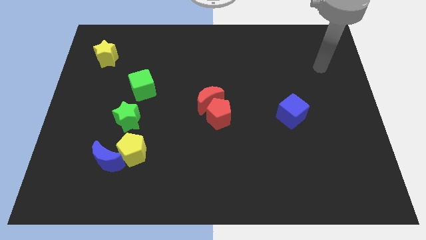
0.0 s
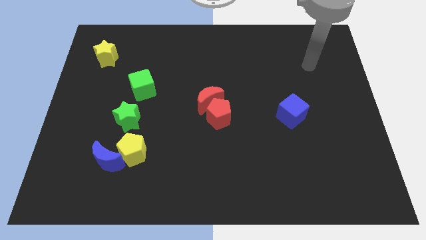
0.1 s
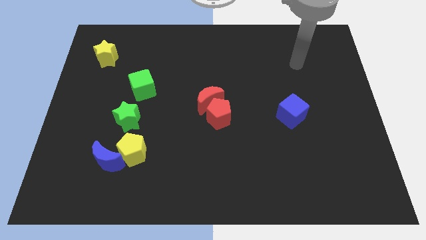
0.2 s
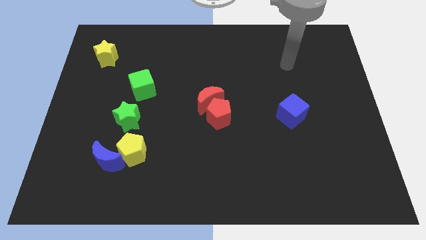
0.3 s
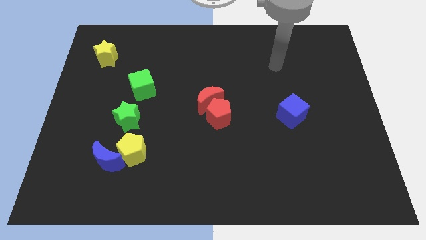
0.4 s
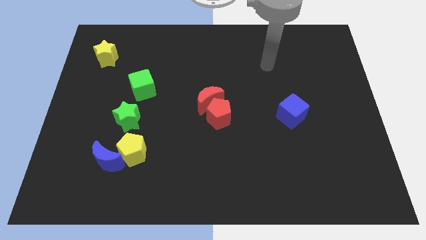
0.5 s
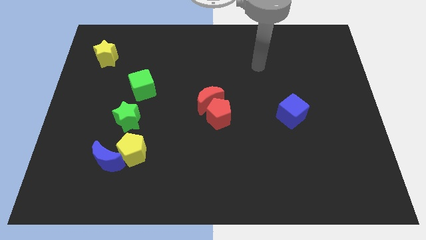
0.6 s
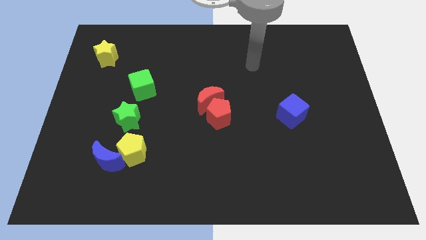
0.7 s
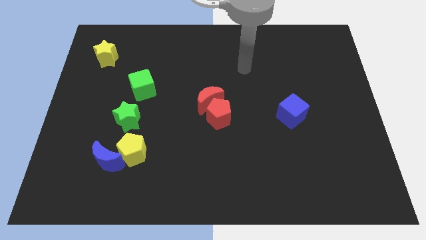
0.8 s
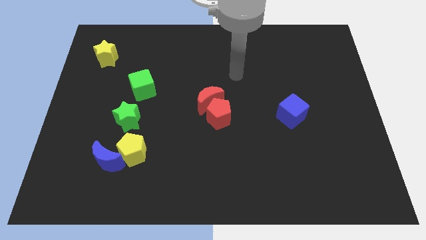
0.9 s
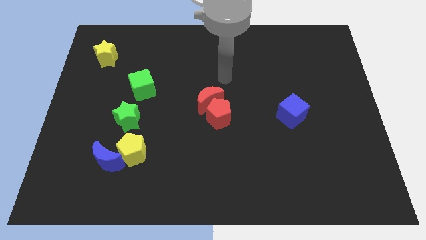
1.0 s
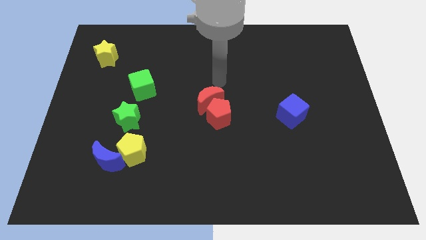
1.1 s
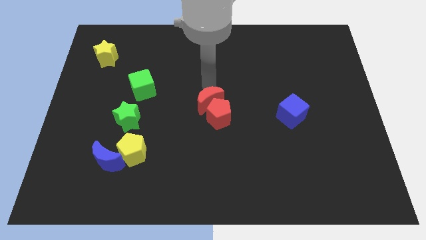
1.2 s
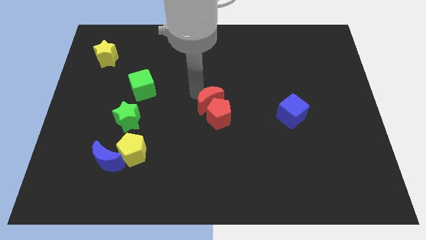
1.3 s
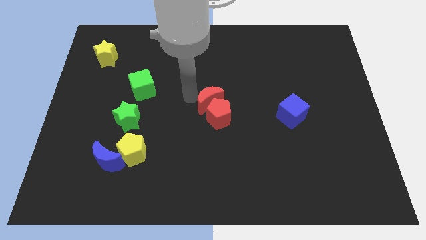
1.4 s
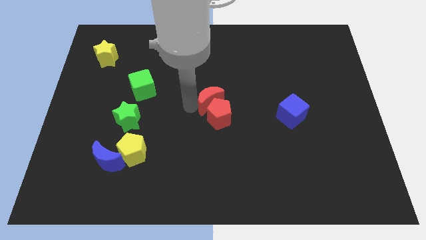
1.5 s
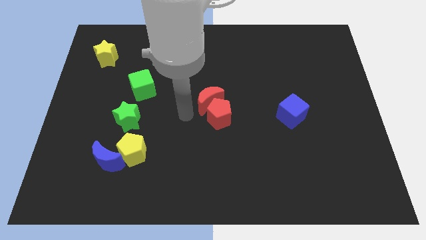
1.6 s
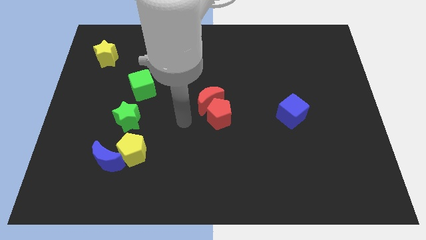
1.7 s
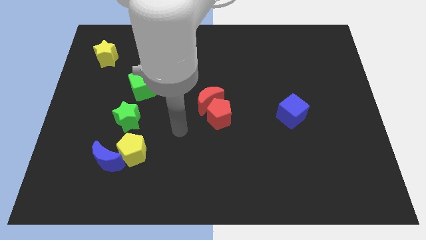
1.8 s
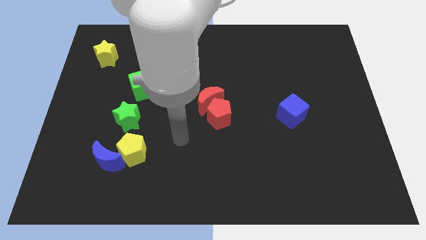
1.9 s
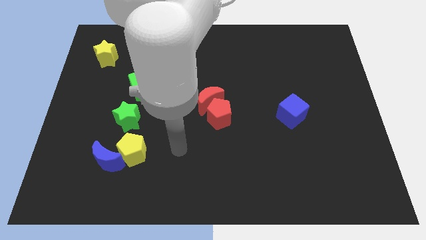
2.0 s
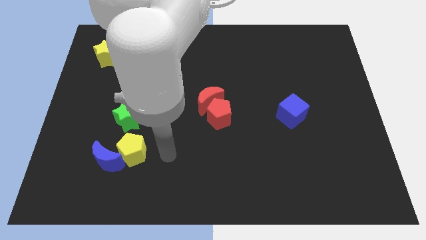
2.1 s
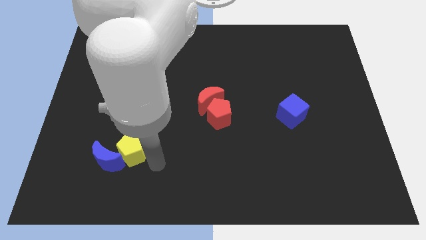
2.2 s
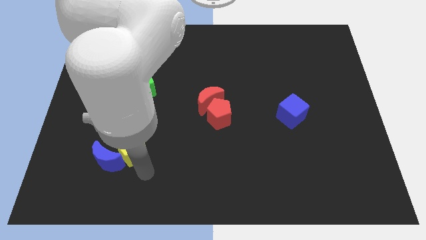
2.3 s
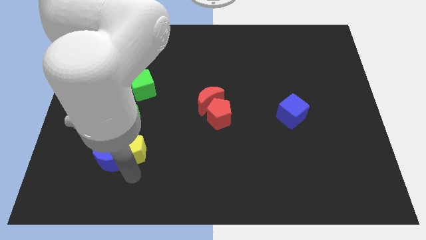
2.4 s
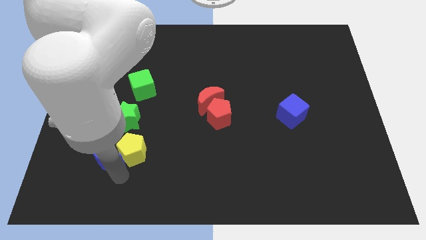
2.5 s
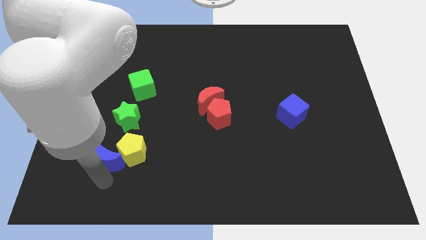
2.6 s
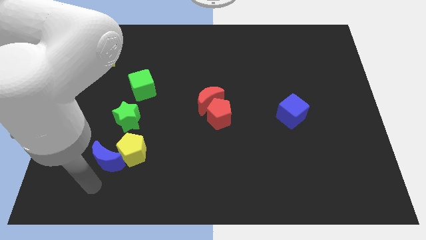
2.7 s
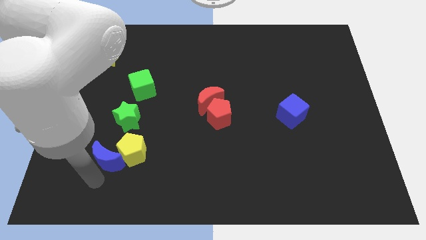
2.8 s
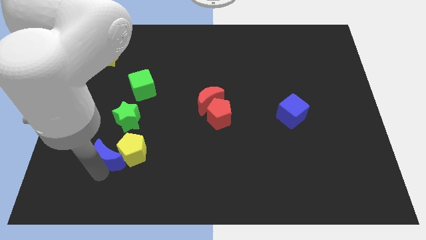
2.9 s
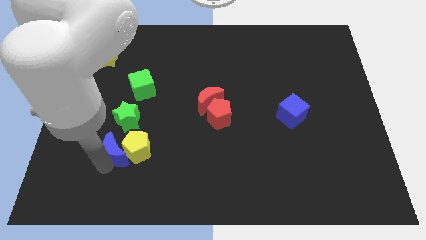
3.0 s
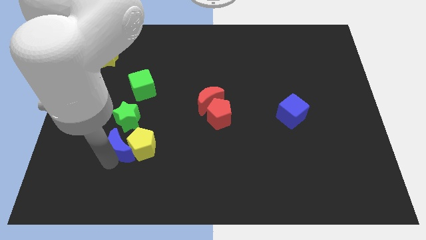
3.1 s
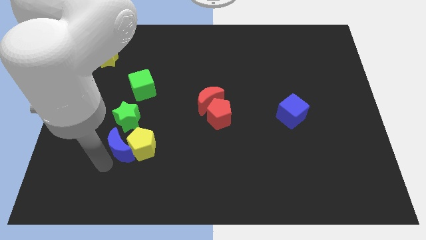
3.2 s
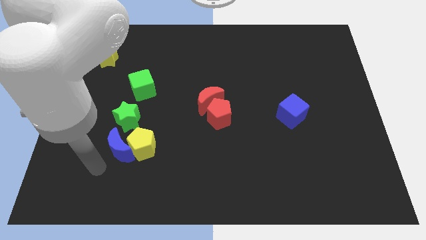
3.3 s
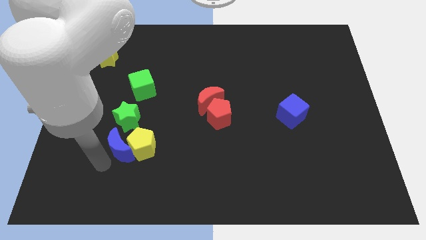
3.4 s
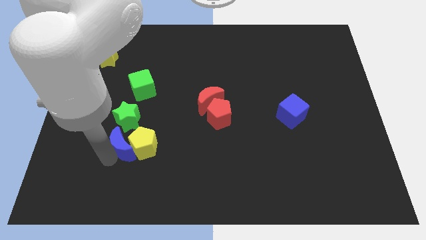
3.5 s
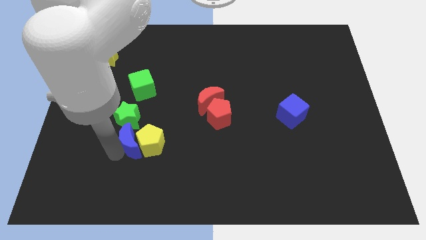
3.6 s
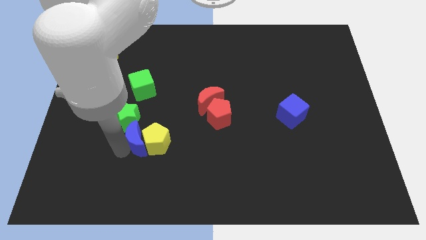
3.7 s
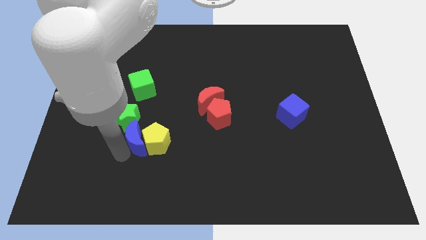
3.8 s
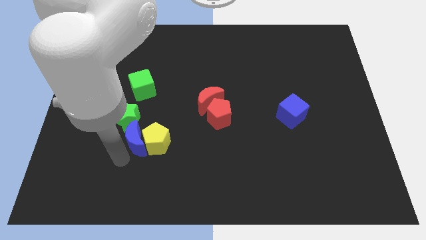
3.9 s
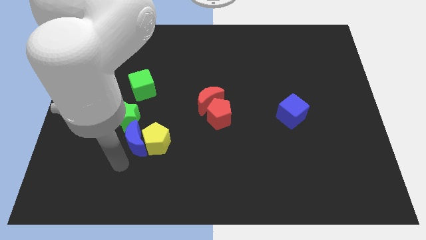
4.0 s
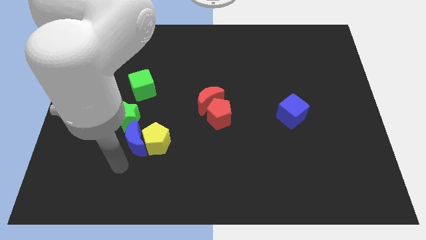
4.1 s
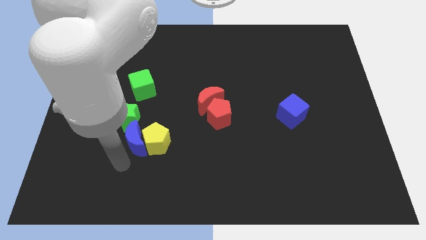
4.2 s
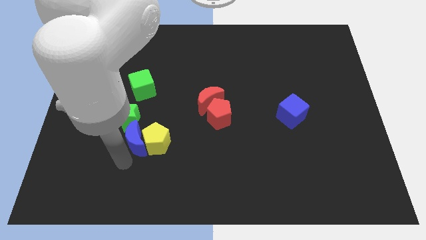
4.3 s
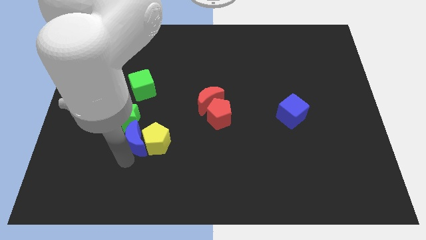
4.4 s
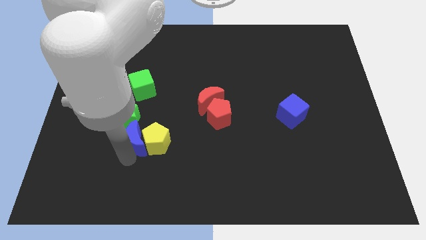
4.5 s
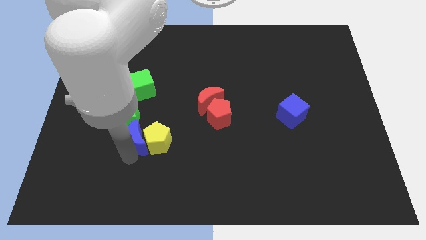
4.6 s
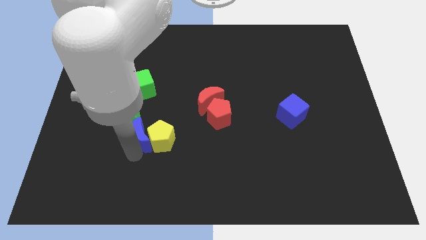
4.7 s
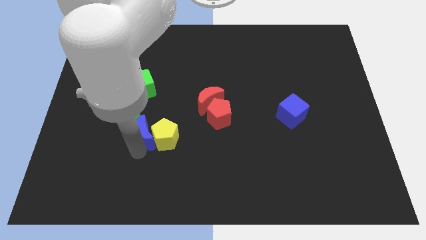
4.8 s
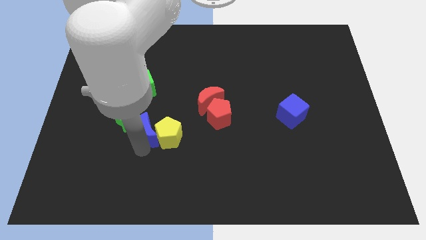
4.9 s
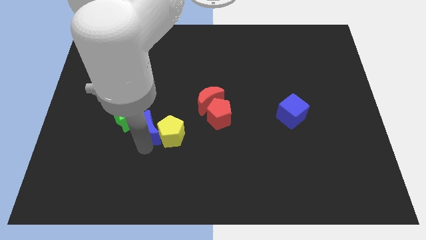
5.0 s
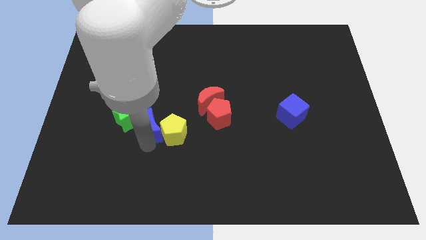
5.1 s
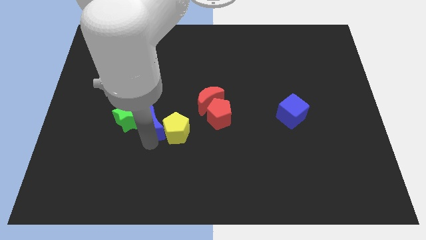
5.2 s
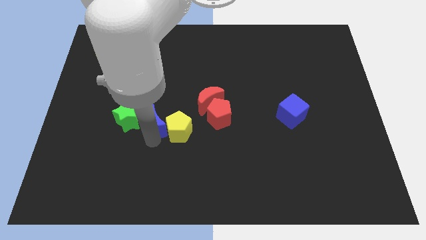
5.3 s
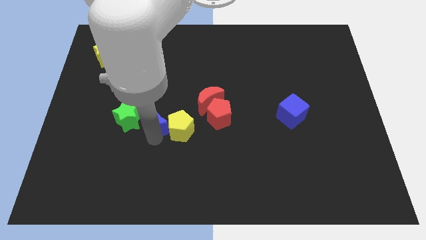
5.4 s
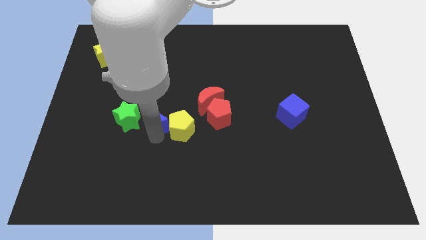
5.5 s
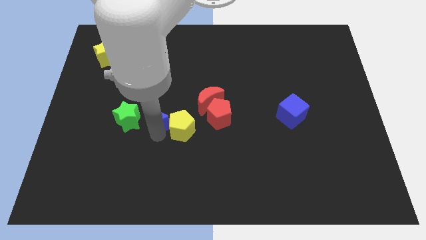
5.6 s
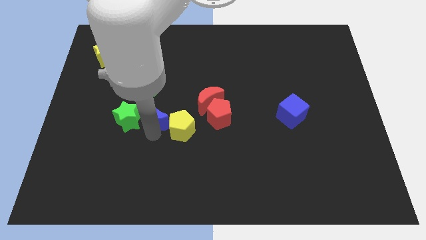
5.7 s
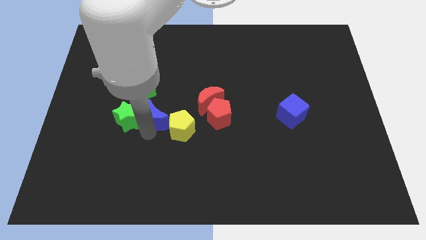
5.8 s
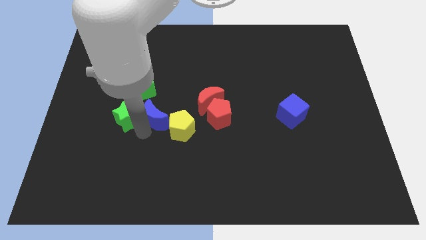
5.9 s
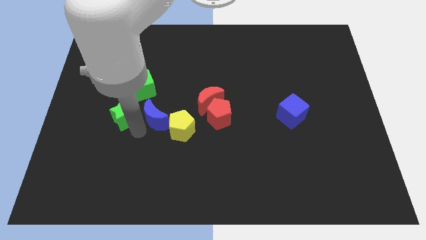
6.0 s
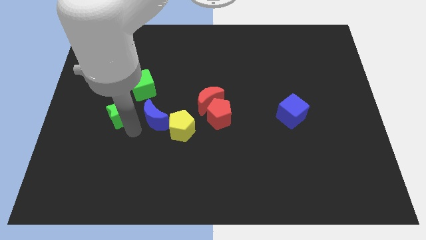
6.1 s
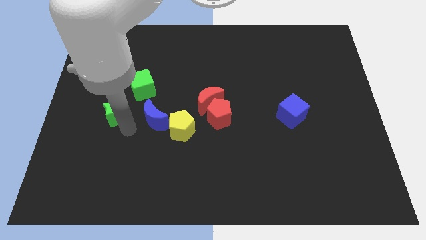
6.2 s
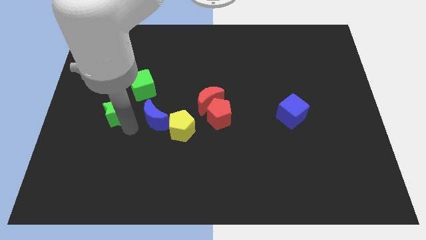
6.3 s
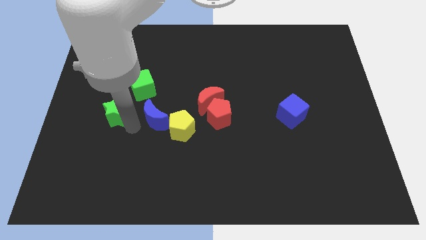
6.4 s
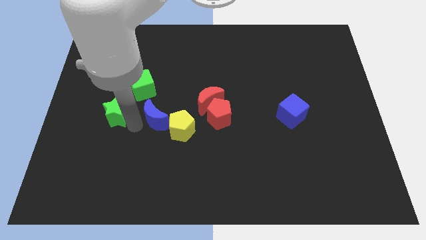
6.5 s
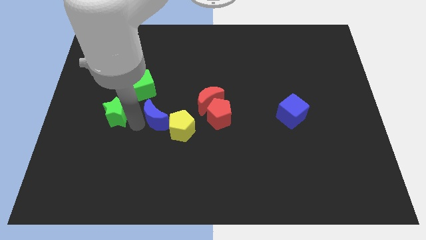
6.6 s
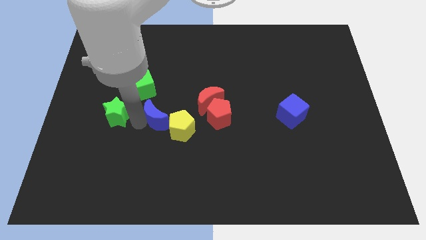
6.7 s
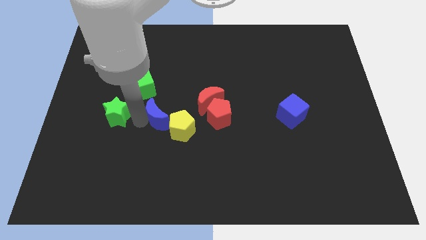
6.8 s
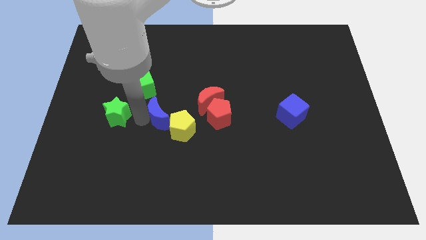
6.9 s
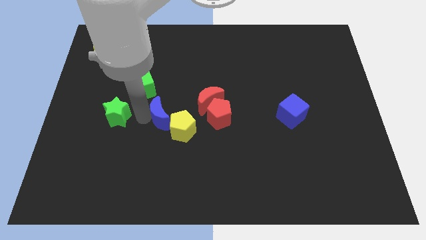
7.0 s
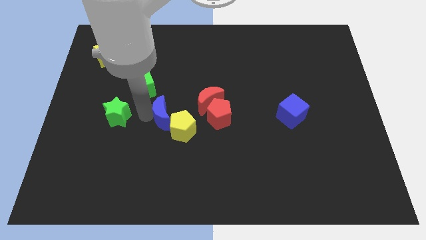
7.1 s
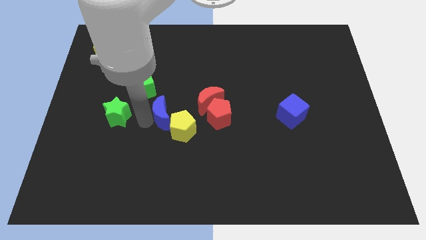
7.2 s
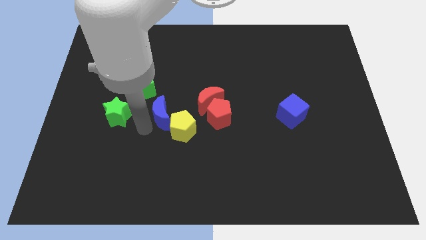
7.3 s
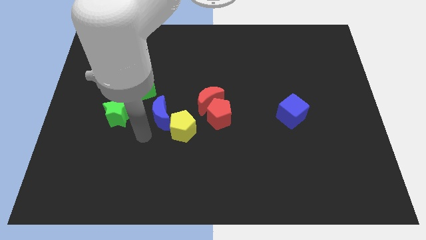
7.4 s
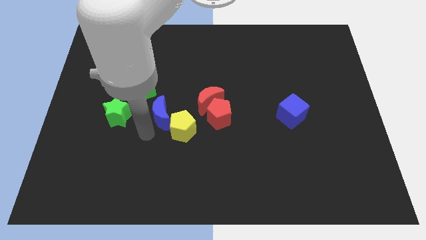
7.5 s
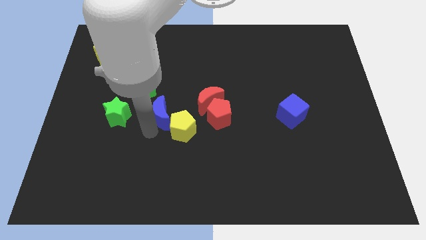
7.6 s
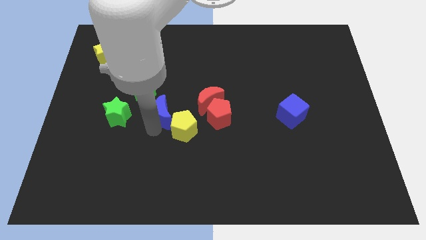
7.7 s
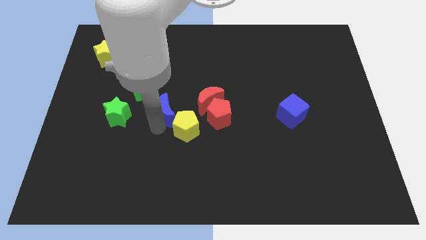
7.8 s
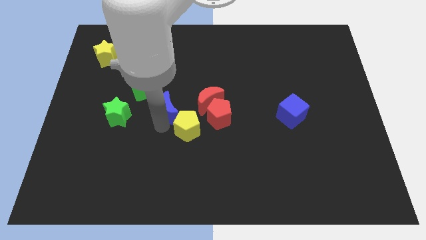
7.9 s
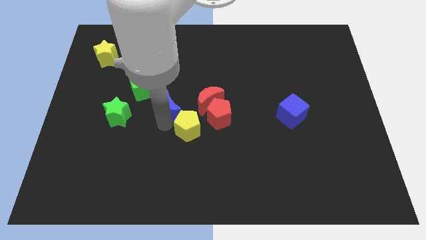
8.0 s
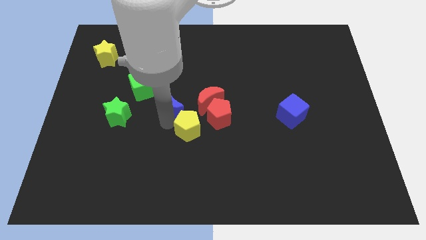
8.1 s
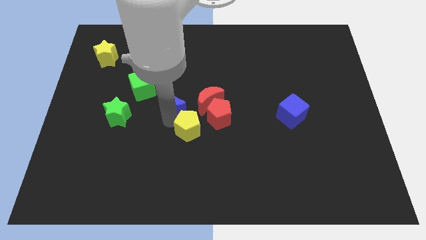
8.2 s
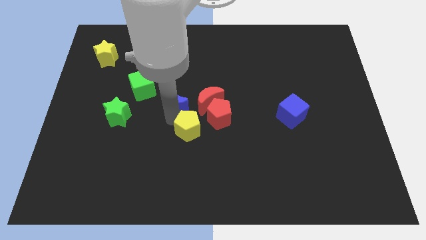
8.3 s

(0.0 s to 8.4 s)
slide the blue moon diagonally up and to the right
